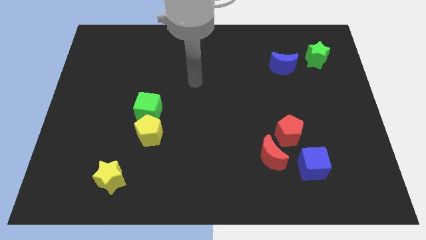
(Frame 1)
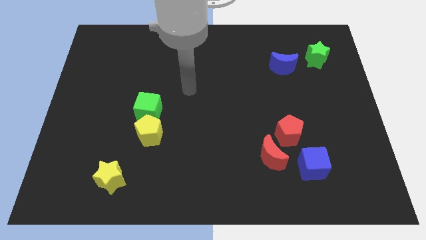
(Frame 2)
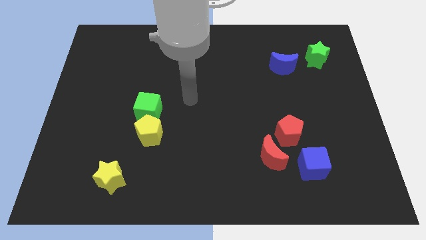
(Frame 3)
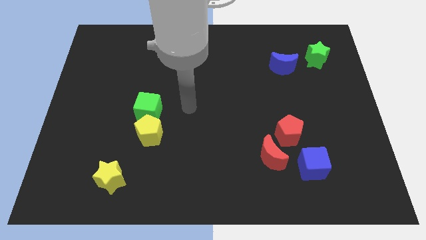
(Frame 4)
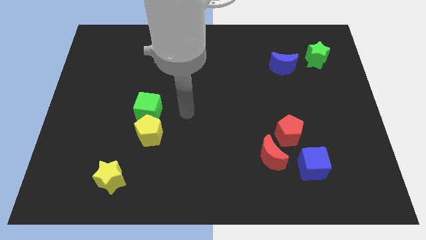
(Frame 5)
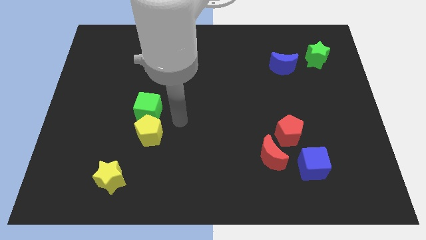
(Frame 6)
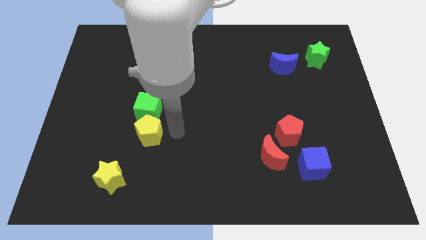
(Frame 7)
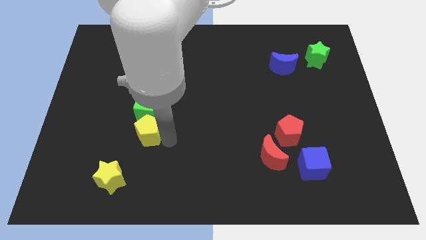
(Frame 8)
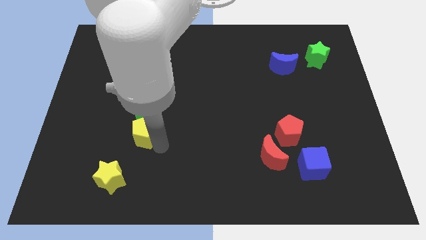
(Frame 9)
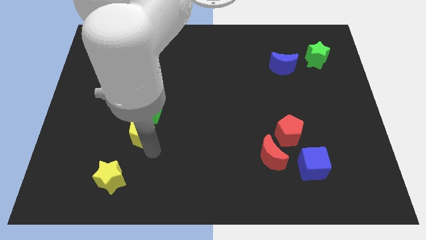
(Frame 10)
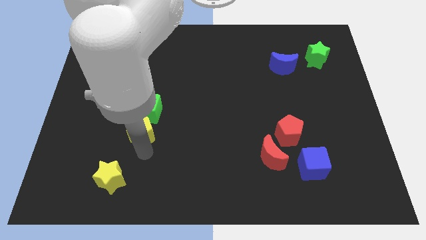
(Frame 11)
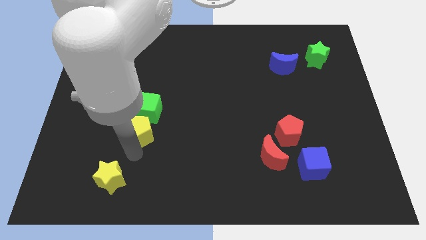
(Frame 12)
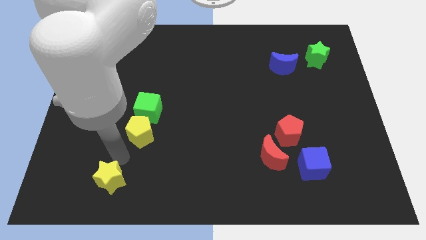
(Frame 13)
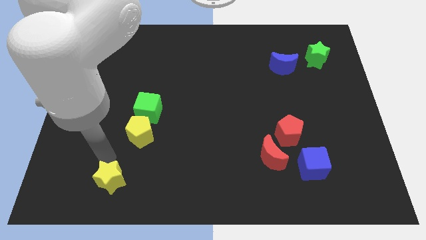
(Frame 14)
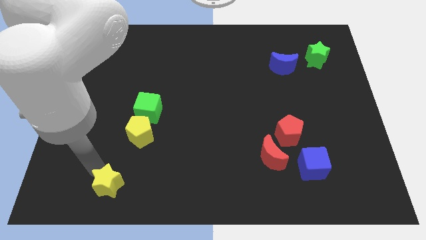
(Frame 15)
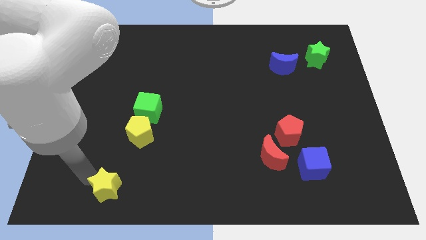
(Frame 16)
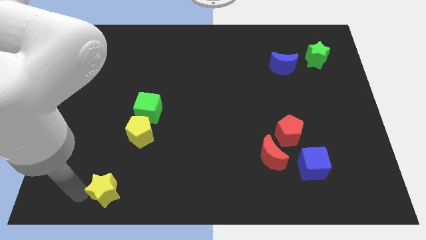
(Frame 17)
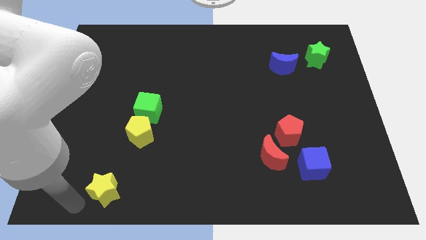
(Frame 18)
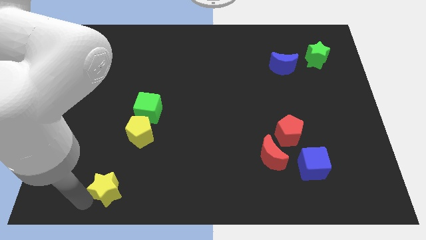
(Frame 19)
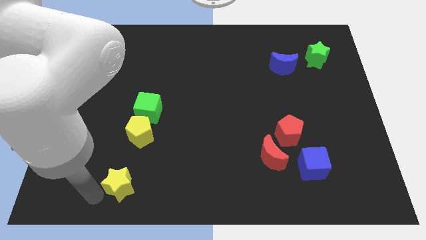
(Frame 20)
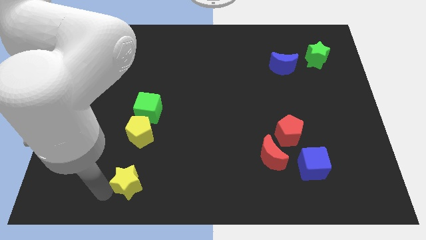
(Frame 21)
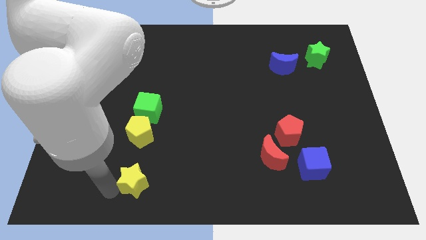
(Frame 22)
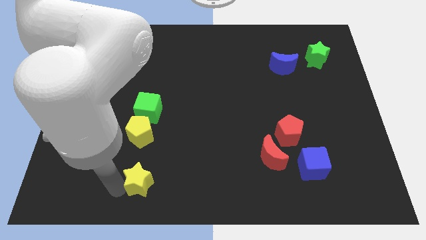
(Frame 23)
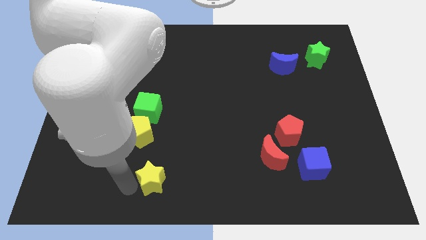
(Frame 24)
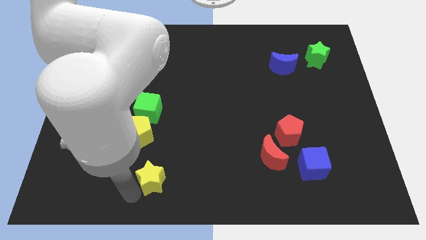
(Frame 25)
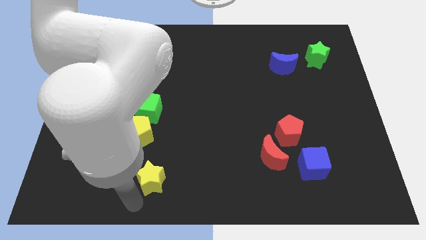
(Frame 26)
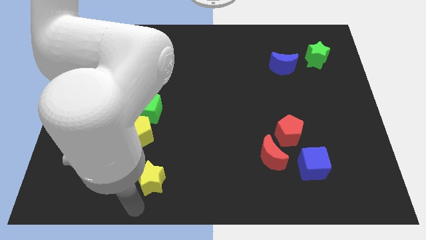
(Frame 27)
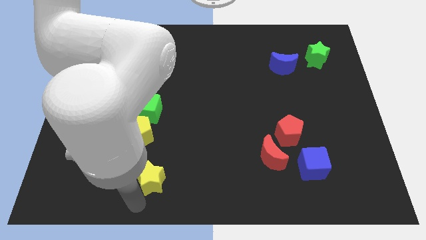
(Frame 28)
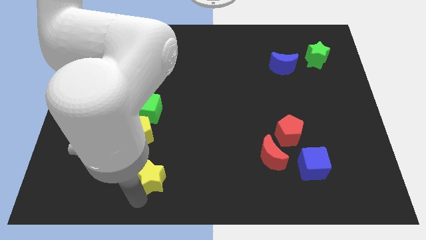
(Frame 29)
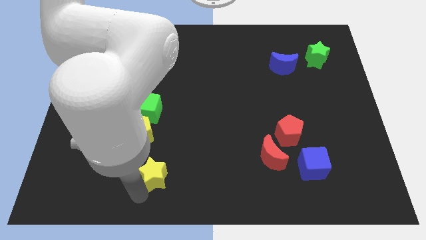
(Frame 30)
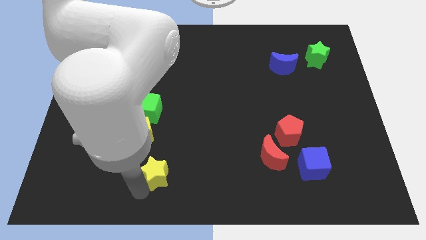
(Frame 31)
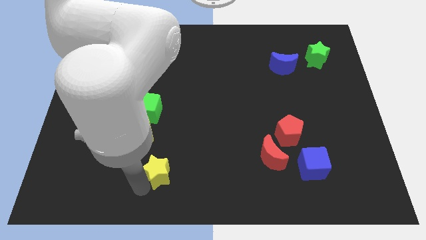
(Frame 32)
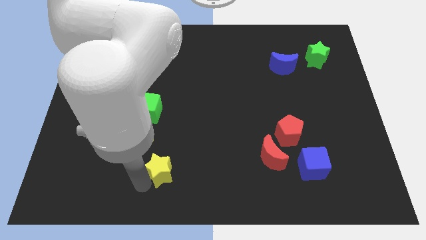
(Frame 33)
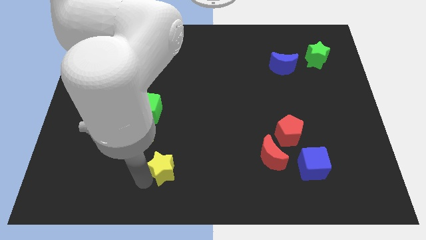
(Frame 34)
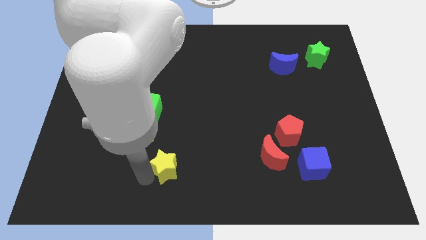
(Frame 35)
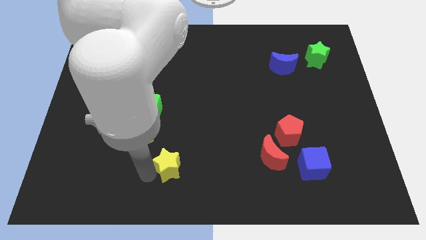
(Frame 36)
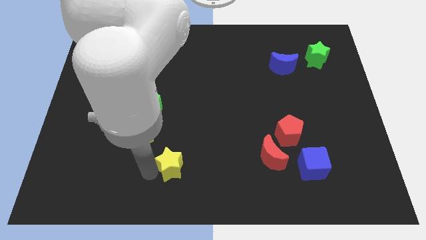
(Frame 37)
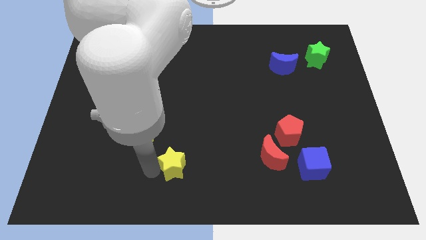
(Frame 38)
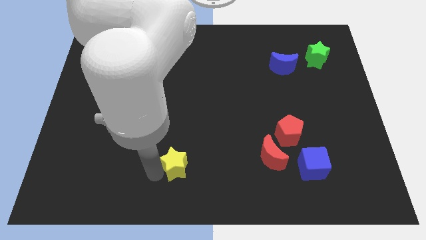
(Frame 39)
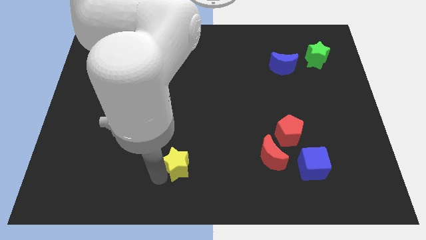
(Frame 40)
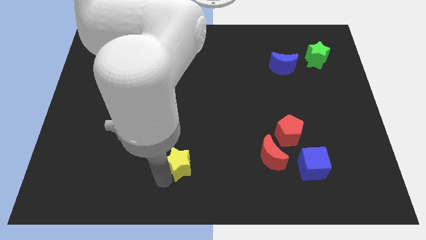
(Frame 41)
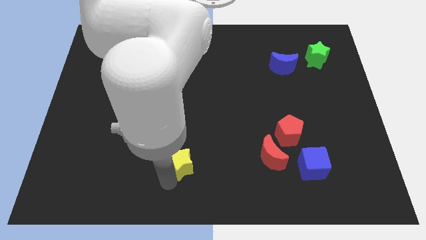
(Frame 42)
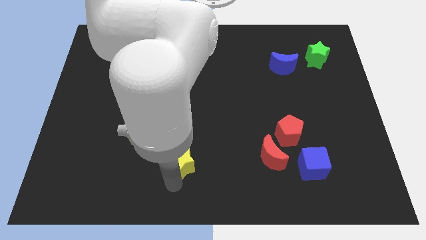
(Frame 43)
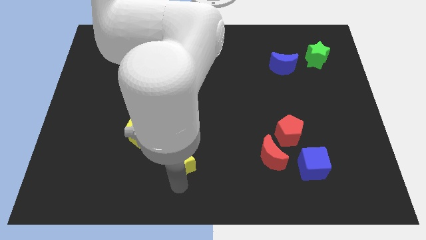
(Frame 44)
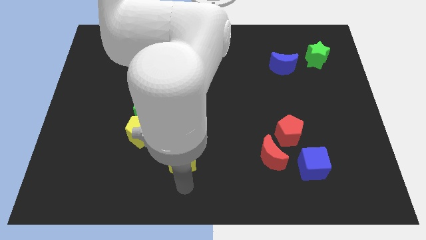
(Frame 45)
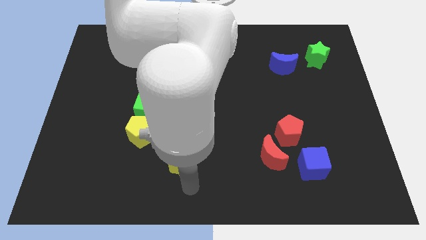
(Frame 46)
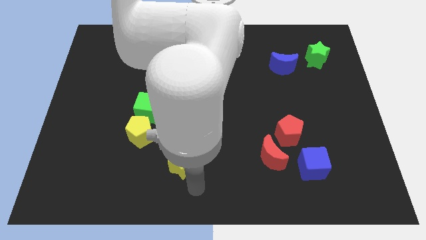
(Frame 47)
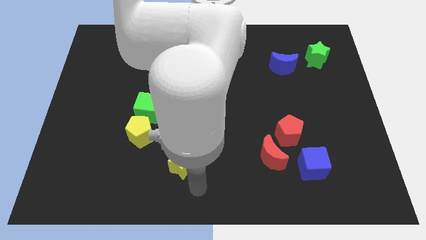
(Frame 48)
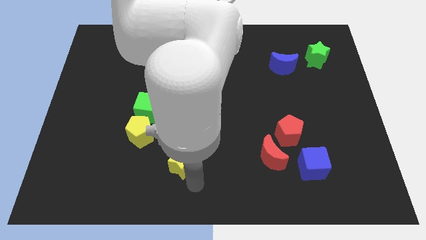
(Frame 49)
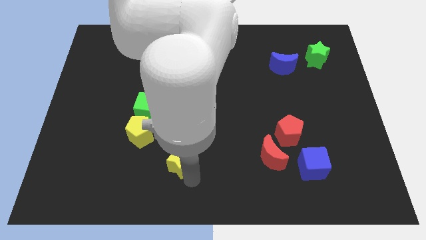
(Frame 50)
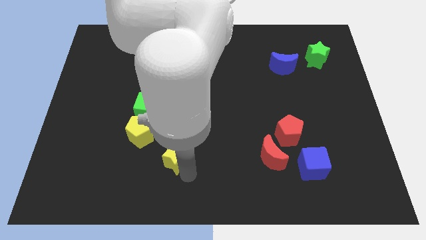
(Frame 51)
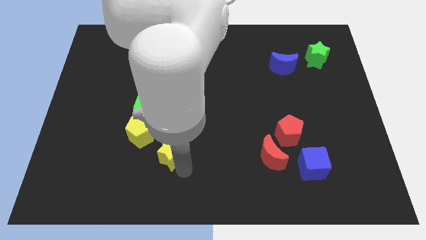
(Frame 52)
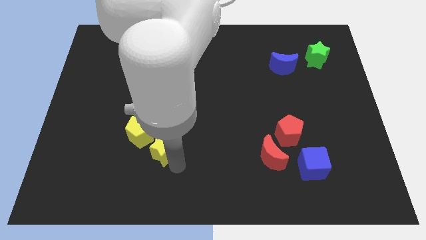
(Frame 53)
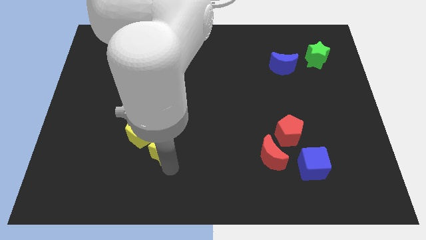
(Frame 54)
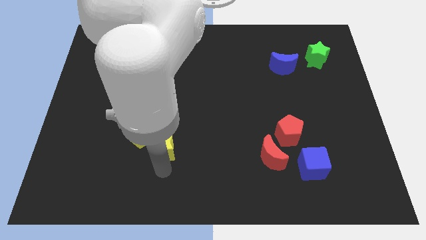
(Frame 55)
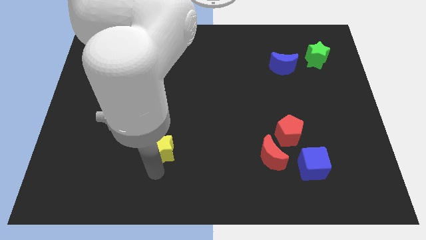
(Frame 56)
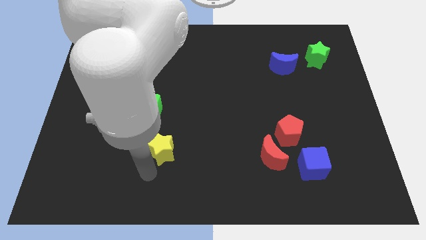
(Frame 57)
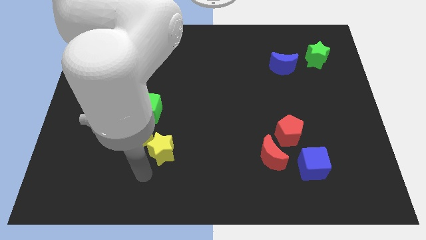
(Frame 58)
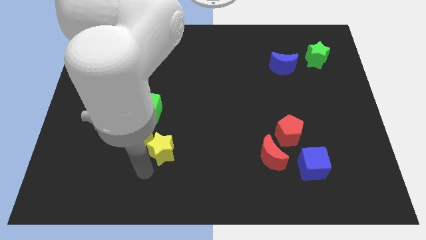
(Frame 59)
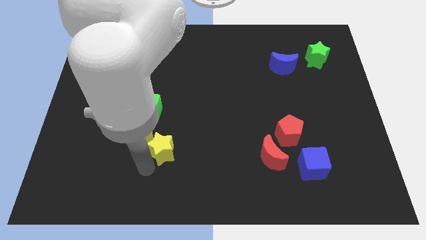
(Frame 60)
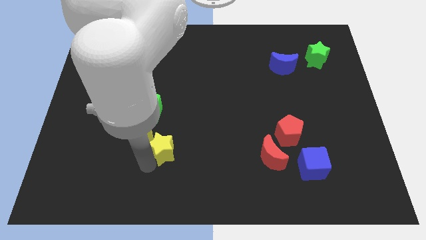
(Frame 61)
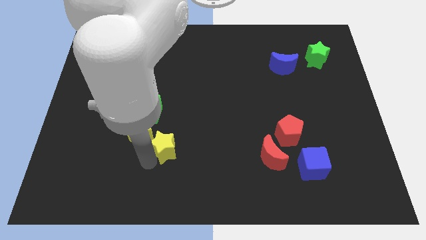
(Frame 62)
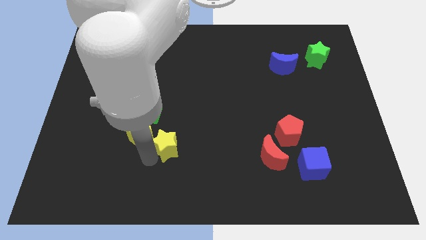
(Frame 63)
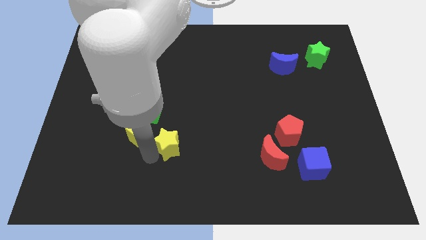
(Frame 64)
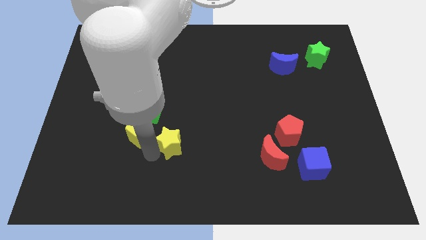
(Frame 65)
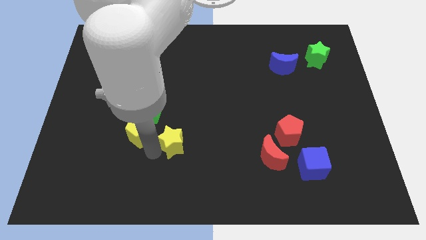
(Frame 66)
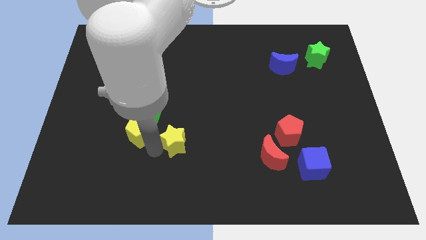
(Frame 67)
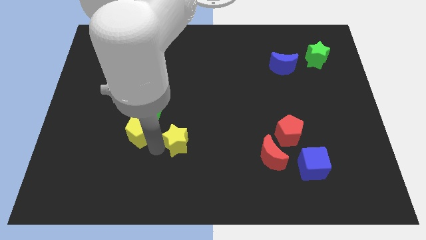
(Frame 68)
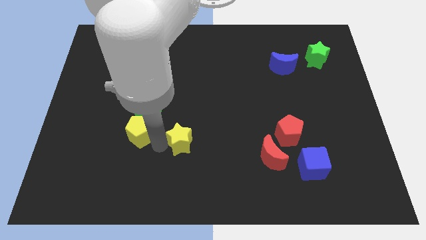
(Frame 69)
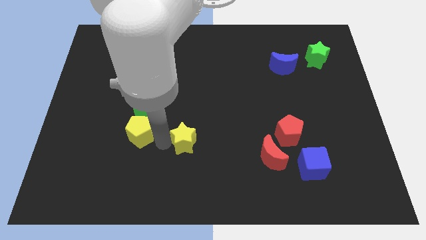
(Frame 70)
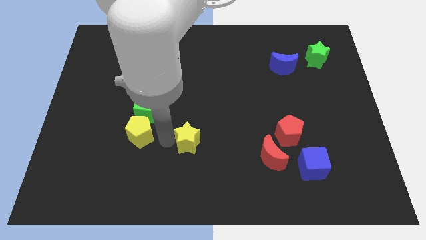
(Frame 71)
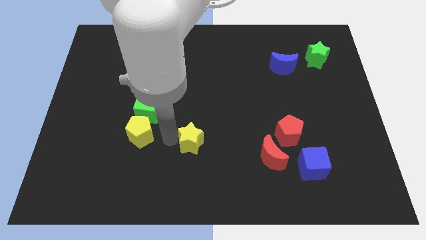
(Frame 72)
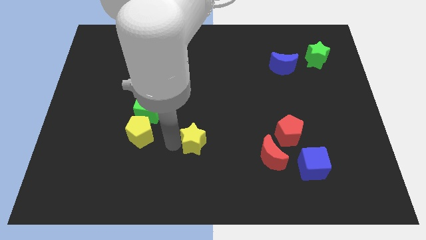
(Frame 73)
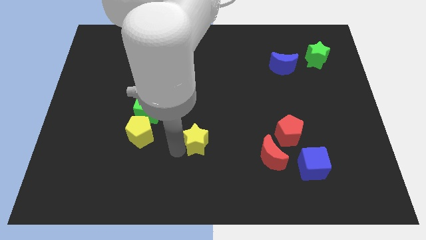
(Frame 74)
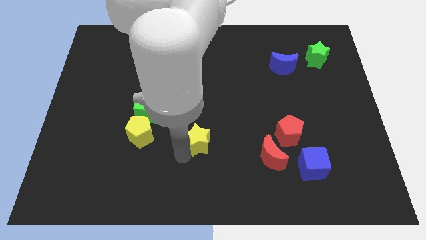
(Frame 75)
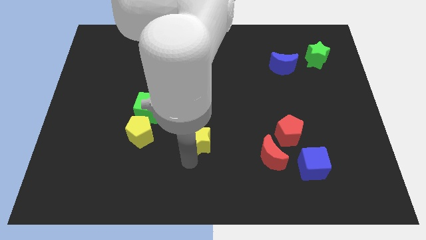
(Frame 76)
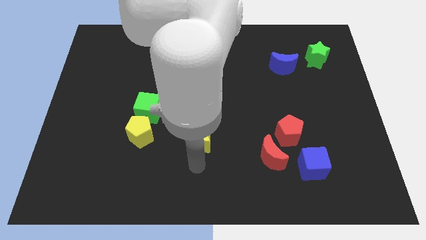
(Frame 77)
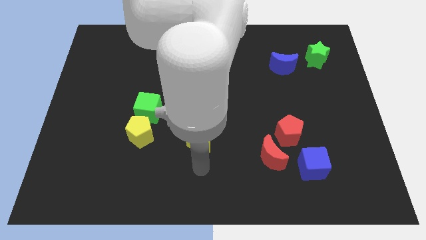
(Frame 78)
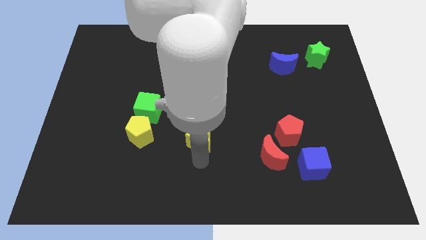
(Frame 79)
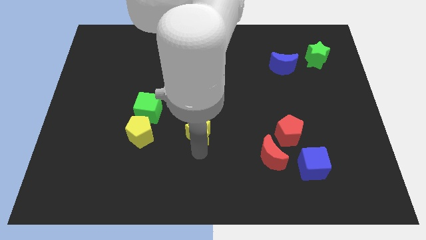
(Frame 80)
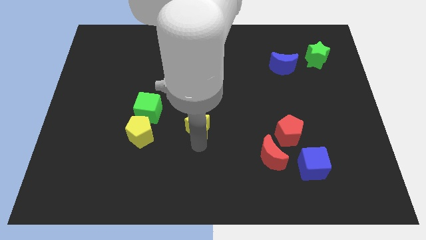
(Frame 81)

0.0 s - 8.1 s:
push the yellow star diagonally up and to the right
